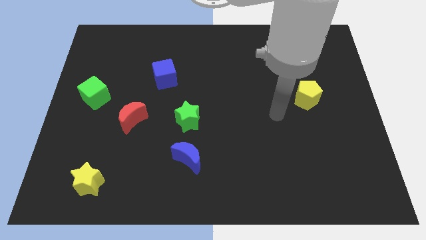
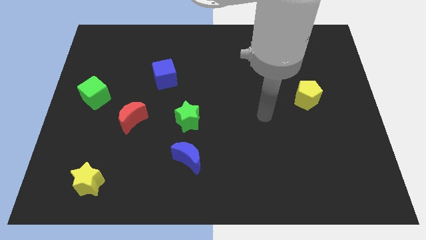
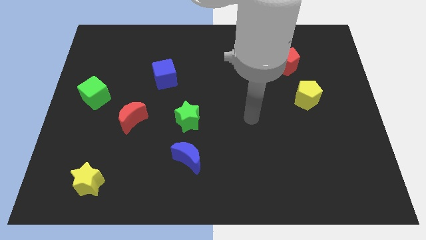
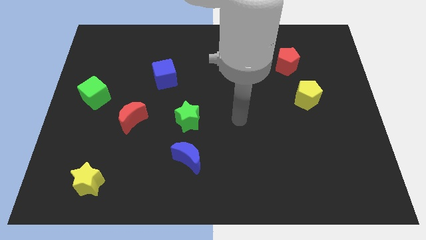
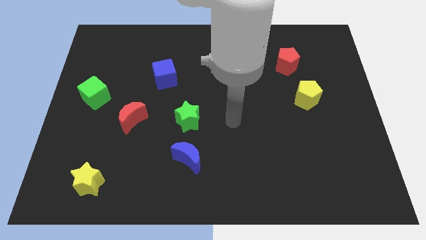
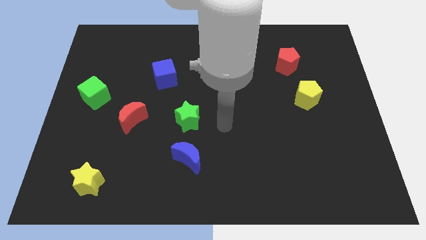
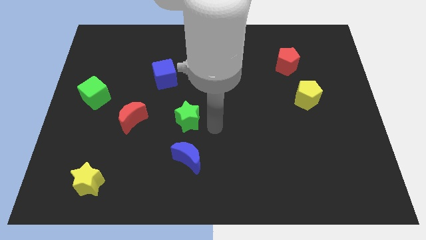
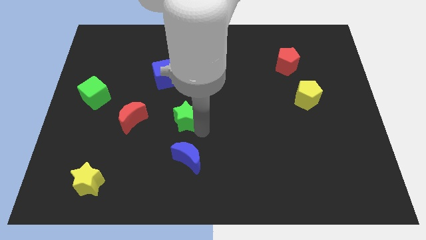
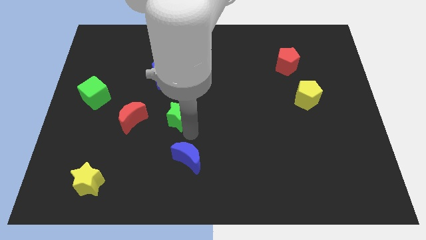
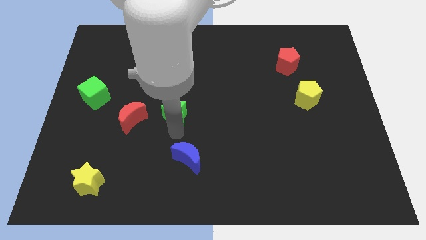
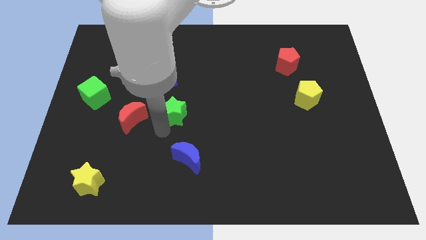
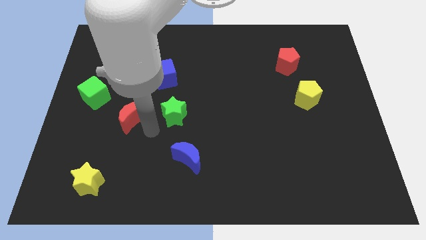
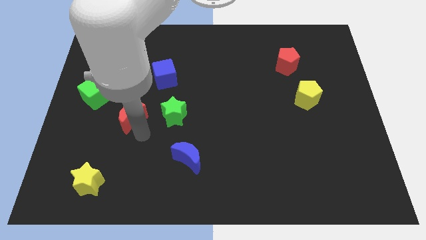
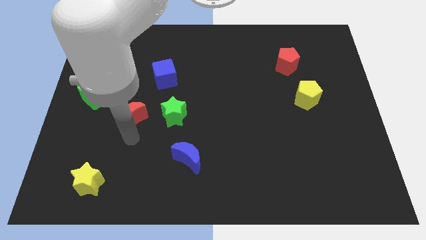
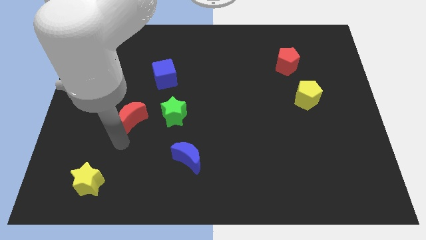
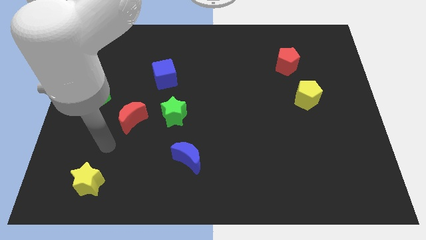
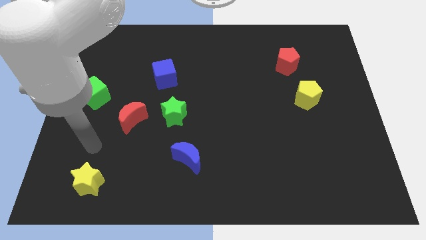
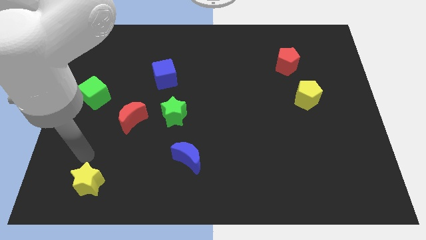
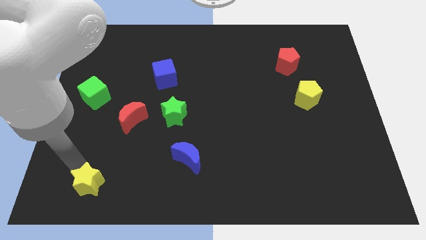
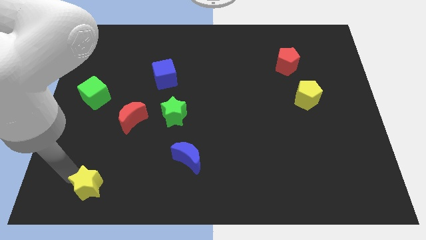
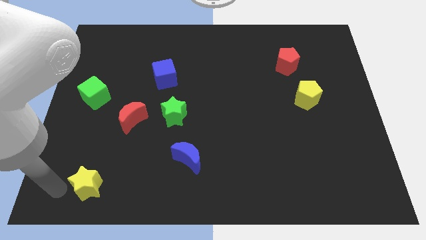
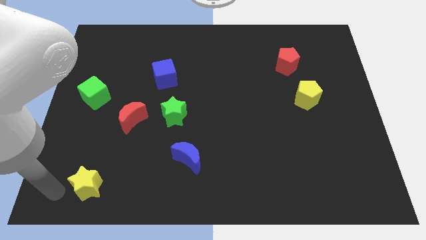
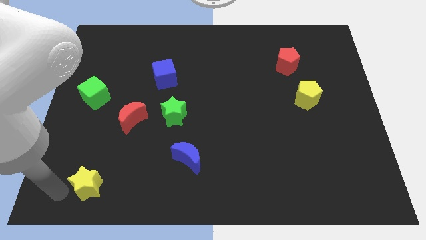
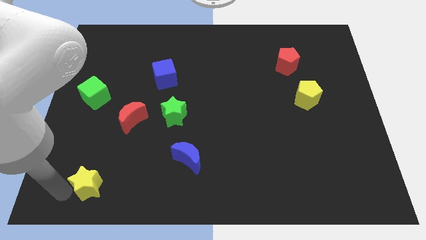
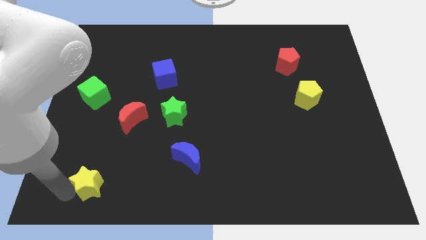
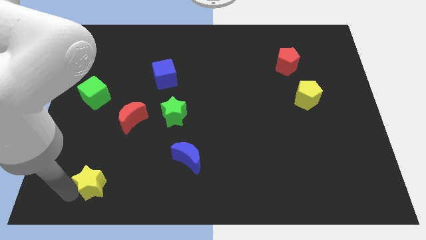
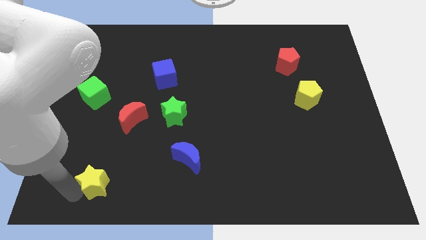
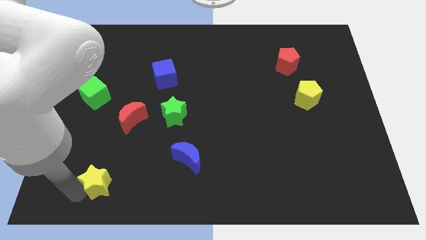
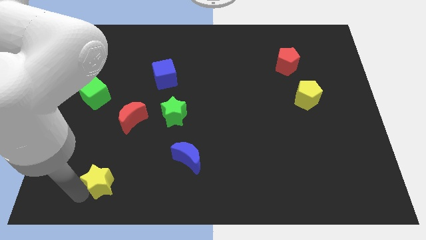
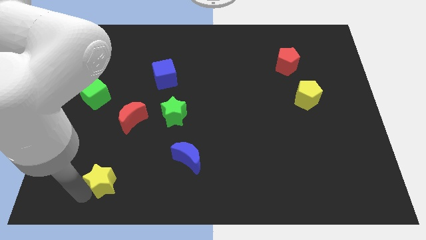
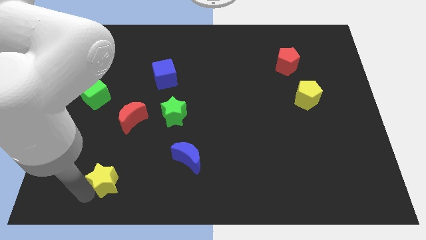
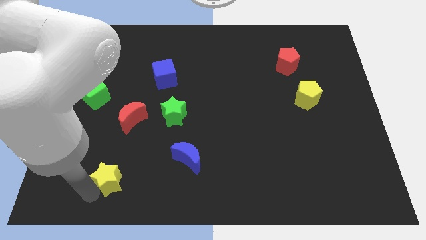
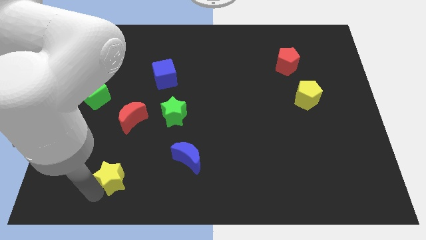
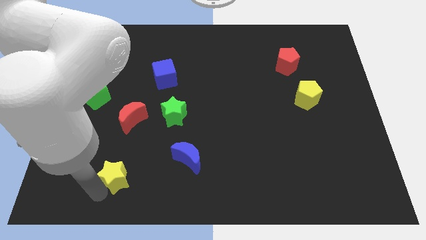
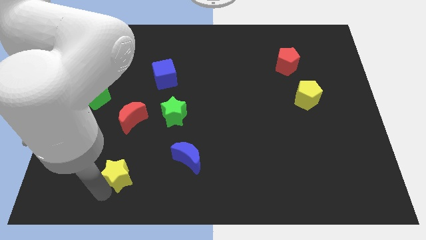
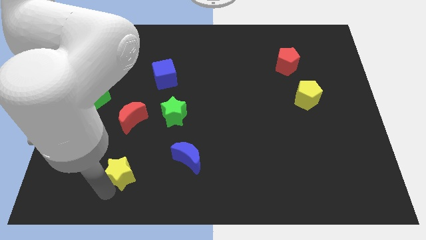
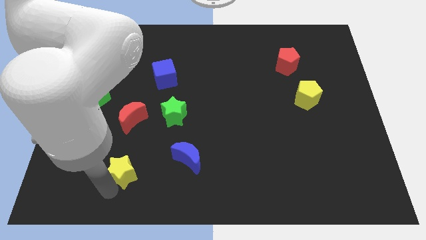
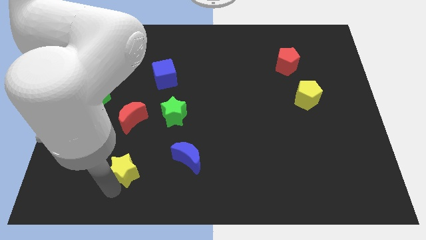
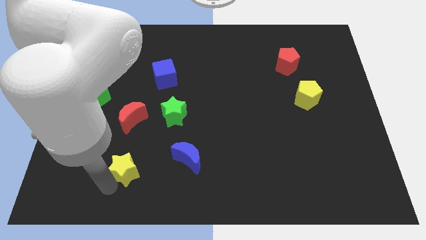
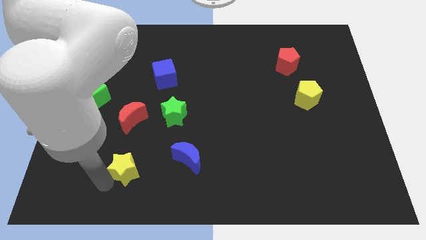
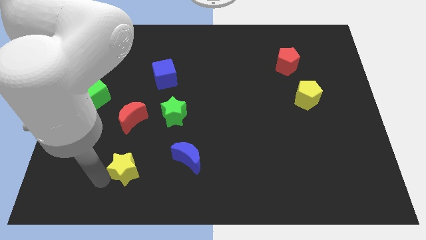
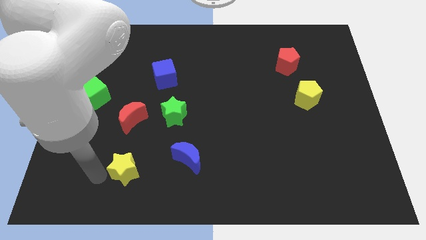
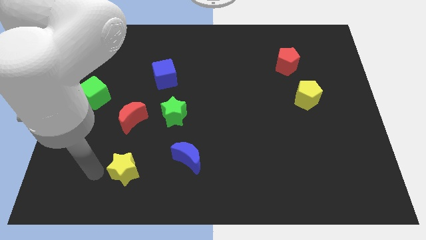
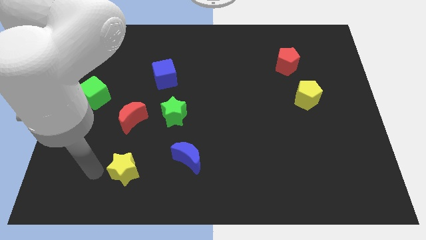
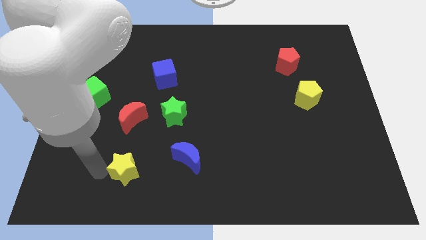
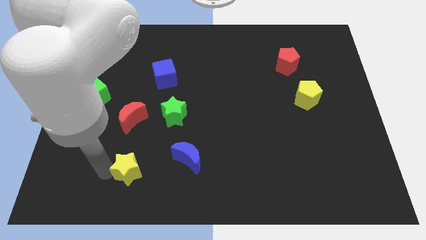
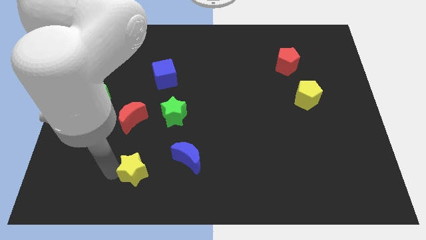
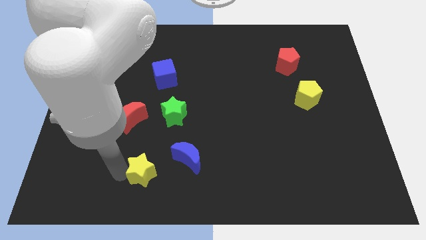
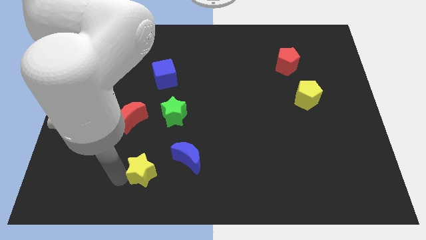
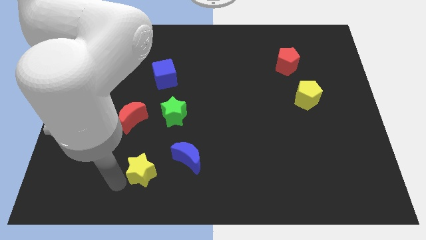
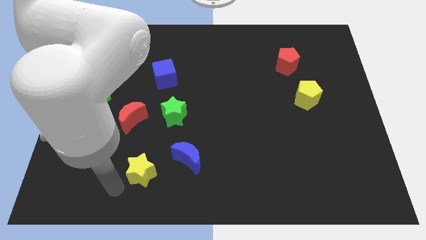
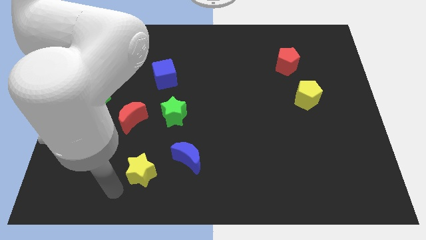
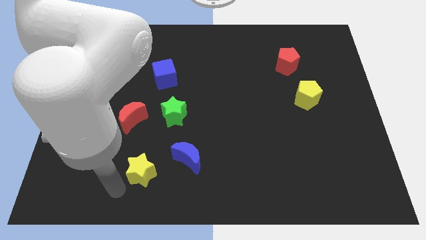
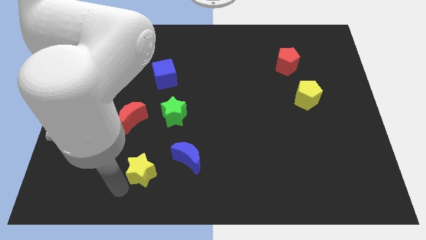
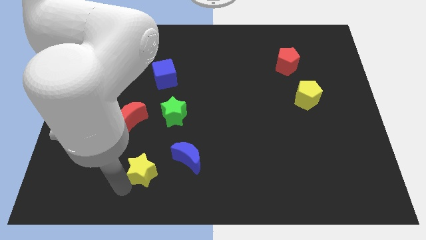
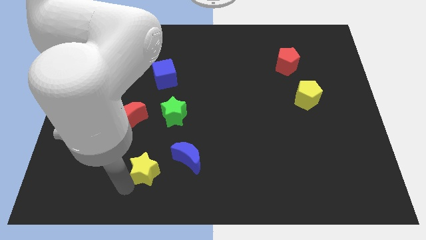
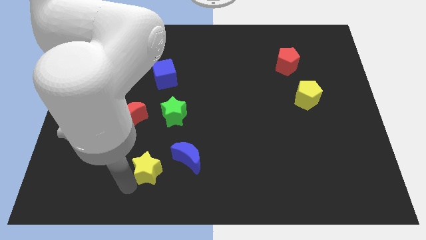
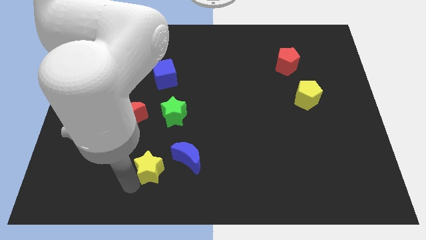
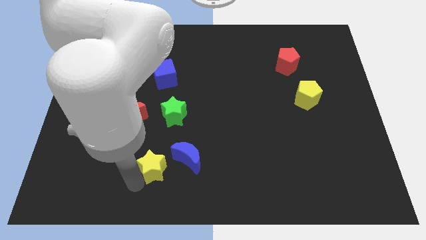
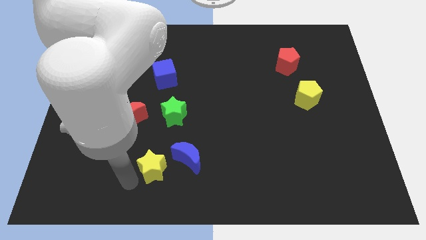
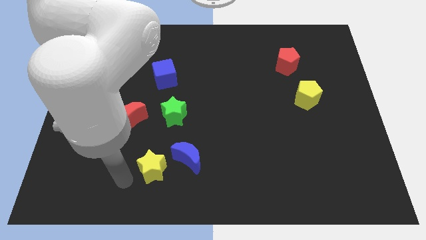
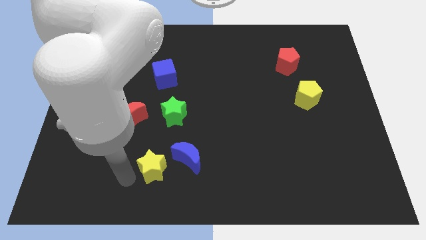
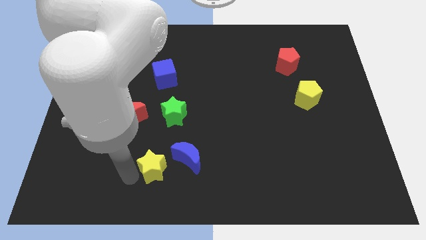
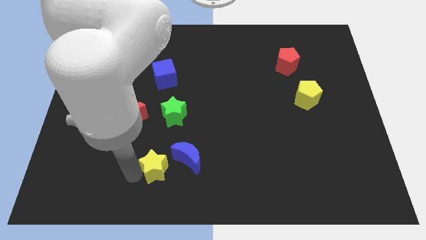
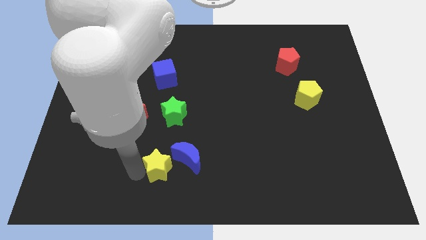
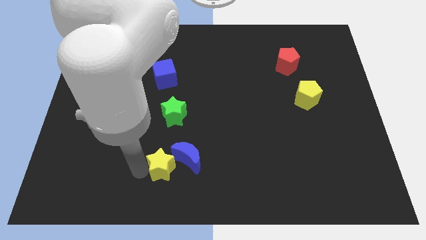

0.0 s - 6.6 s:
push the yellow star towards the blue moon

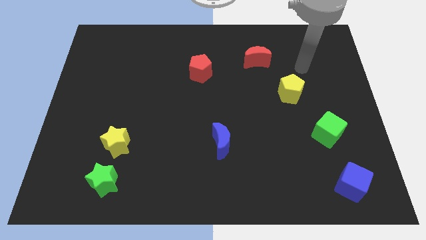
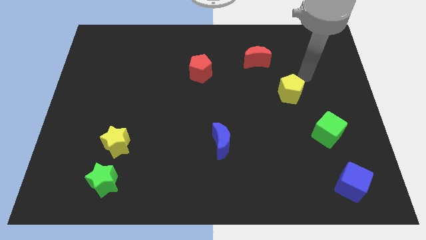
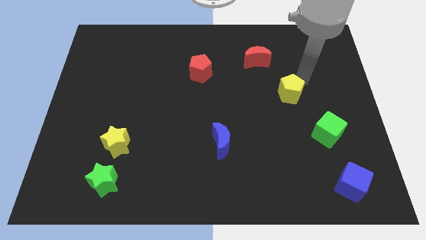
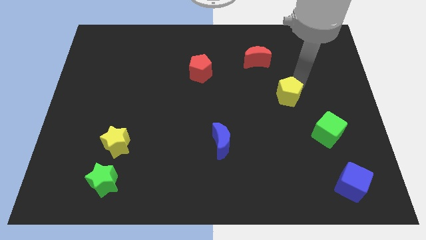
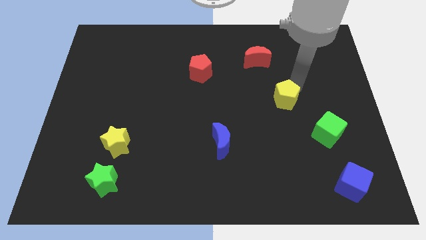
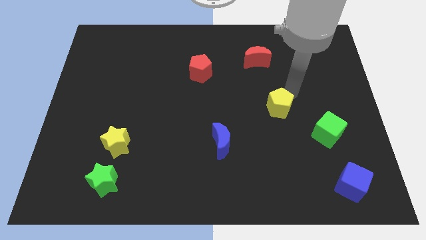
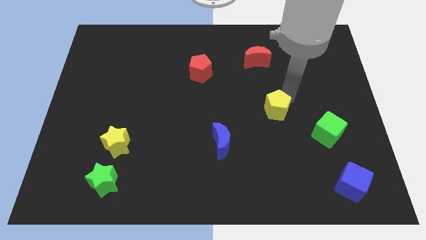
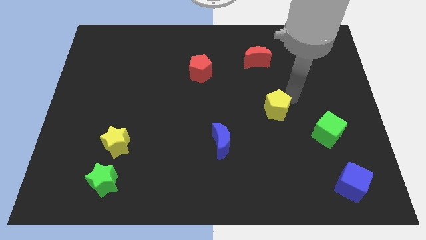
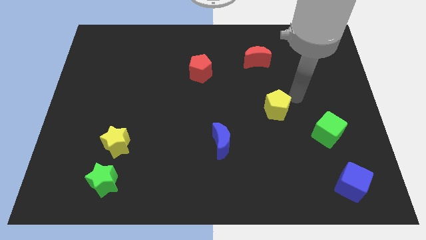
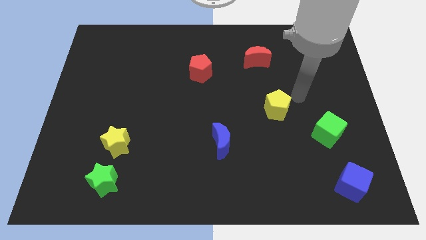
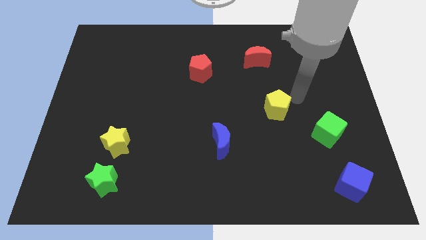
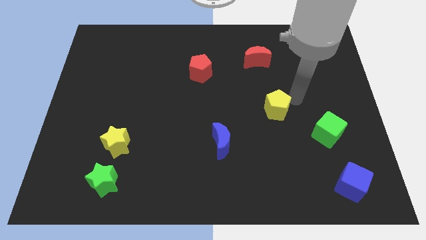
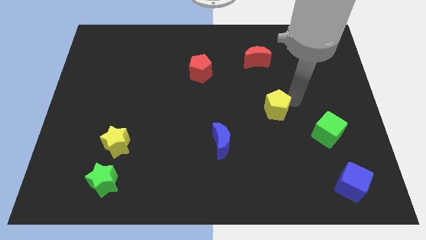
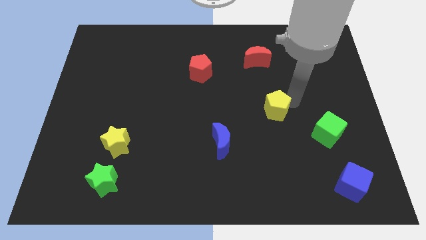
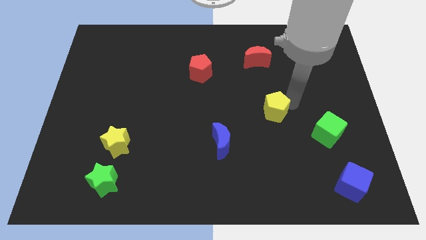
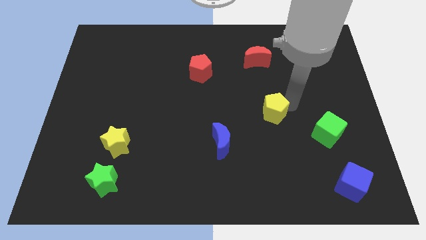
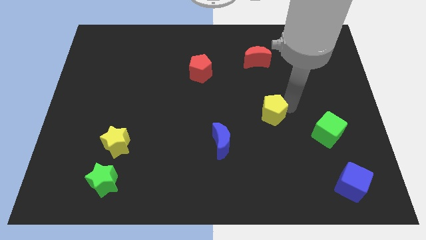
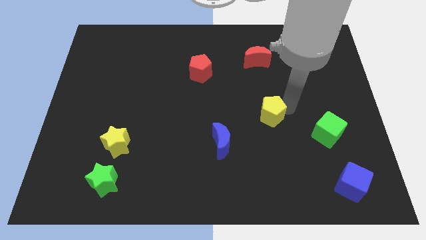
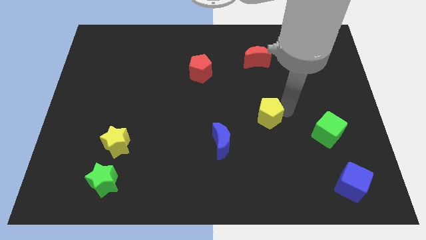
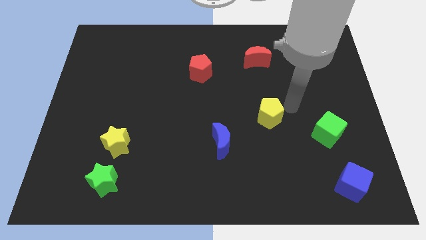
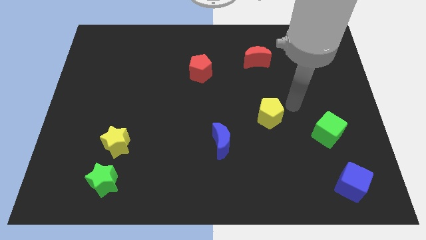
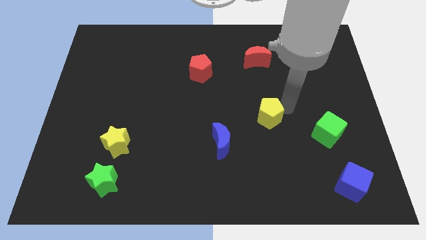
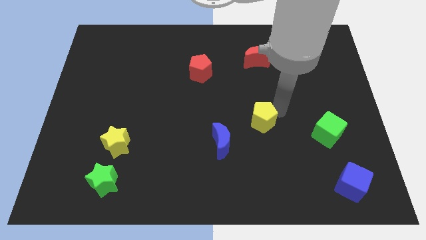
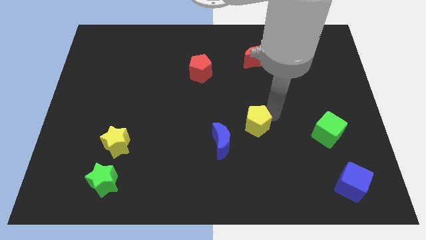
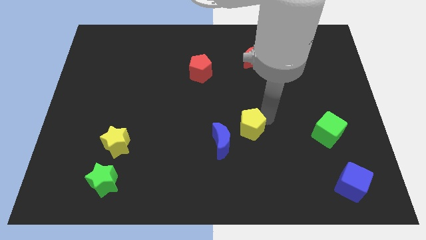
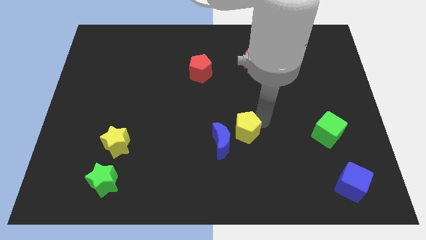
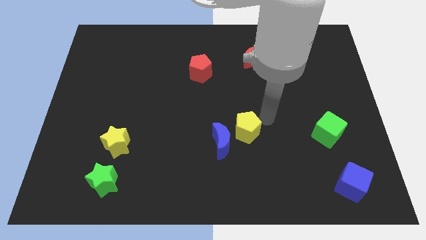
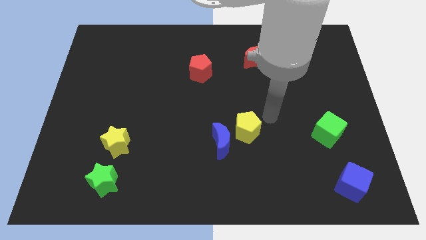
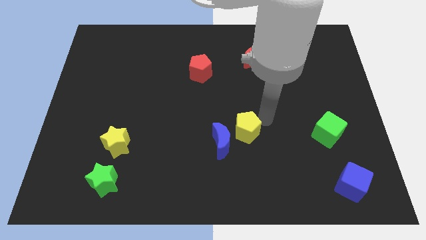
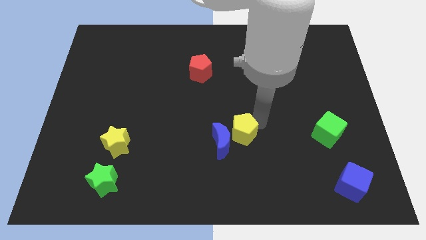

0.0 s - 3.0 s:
push the yellow pentagon close to the blue moon
